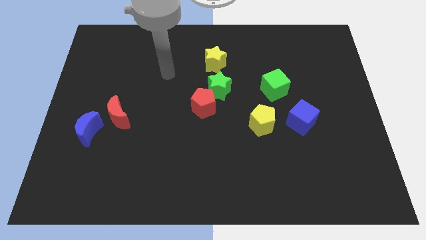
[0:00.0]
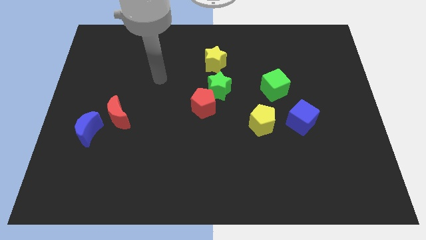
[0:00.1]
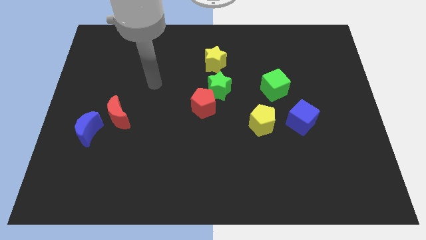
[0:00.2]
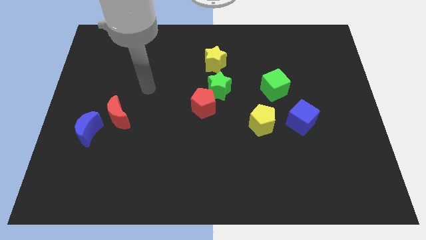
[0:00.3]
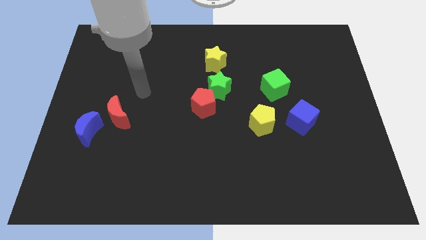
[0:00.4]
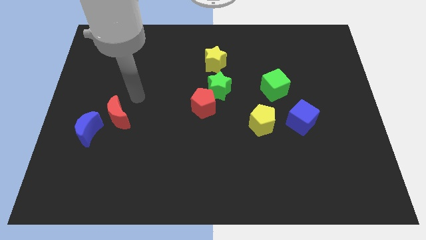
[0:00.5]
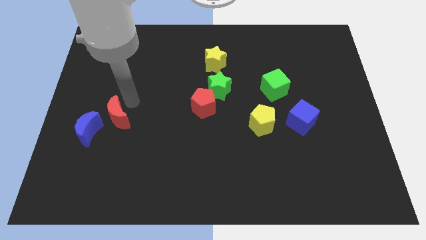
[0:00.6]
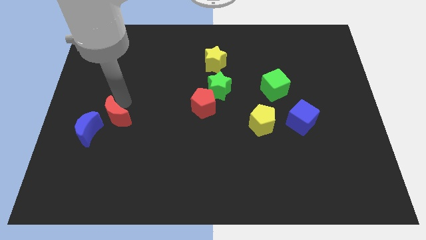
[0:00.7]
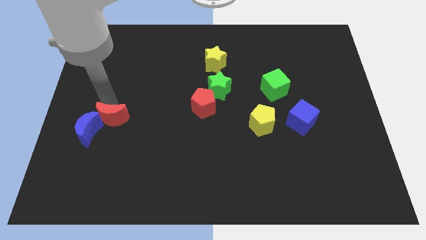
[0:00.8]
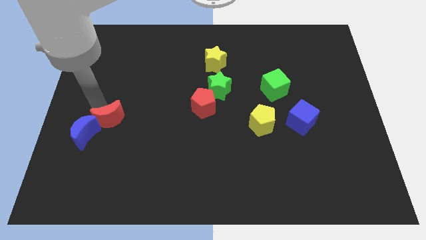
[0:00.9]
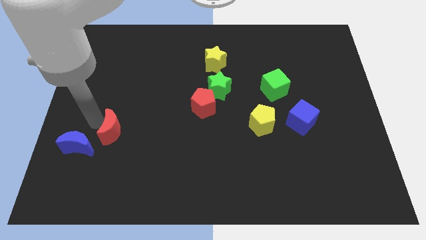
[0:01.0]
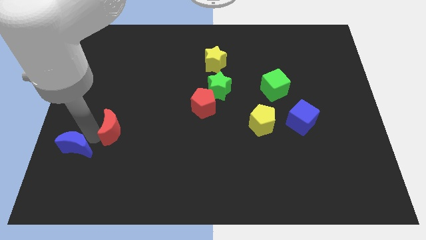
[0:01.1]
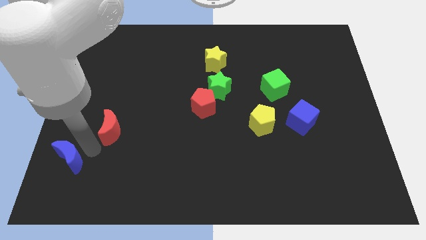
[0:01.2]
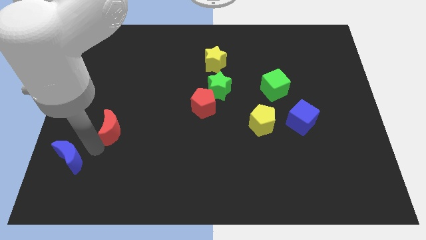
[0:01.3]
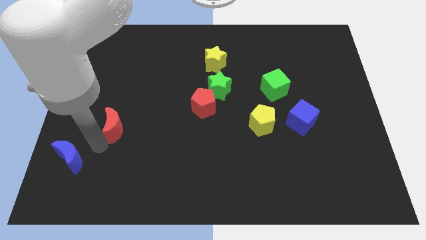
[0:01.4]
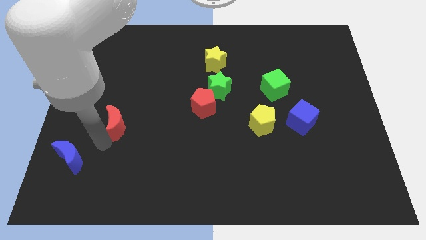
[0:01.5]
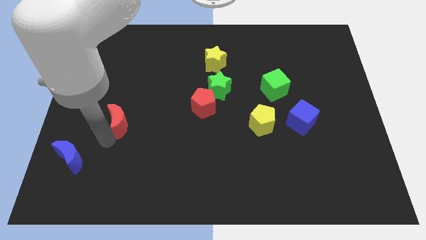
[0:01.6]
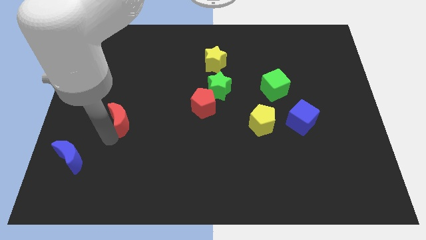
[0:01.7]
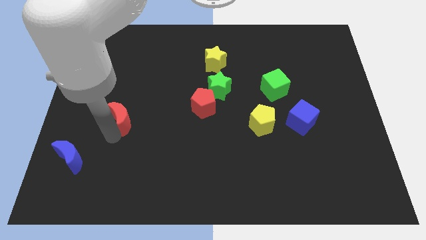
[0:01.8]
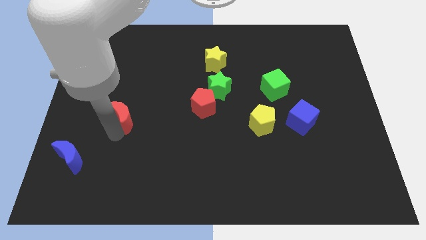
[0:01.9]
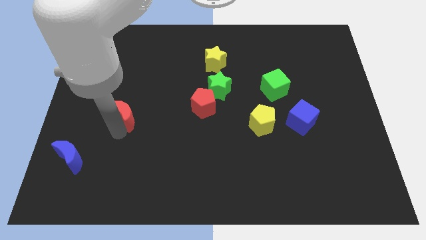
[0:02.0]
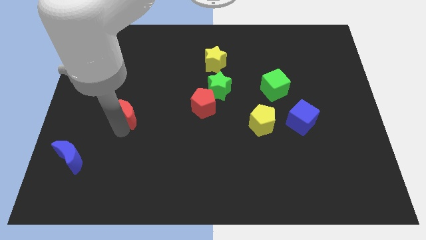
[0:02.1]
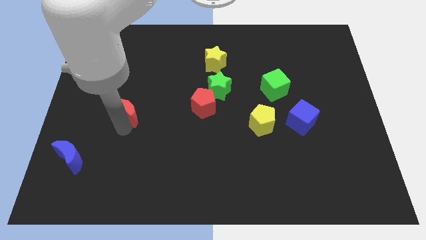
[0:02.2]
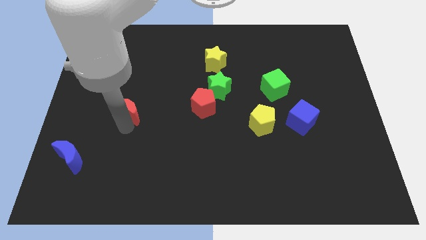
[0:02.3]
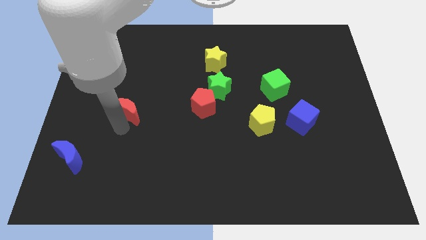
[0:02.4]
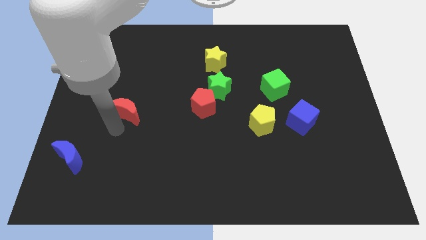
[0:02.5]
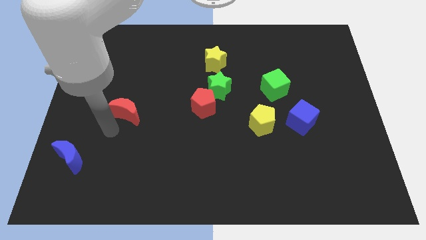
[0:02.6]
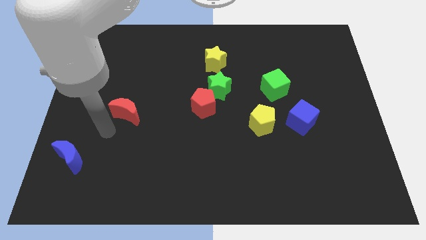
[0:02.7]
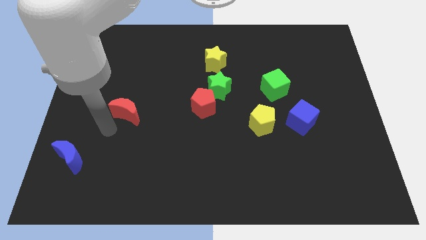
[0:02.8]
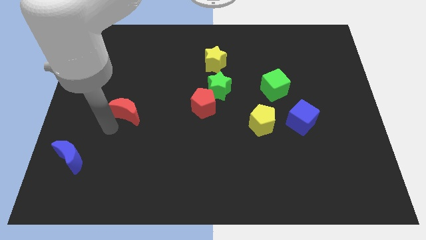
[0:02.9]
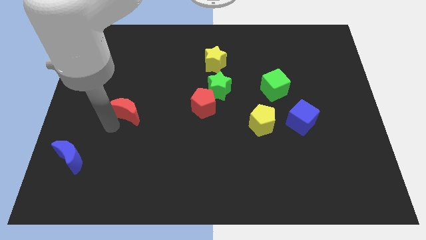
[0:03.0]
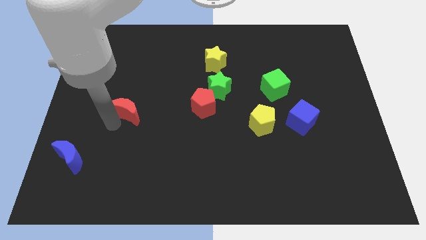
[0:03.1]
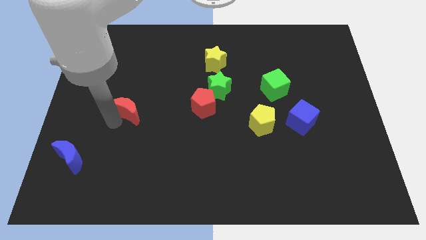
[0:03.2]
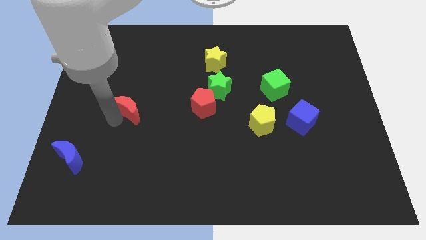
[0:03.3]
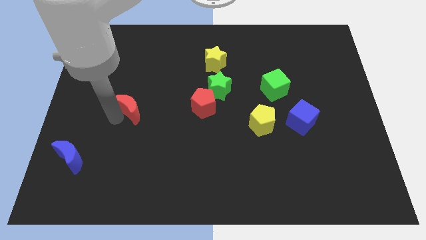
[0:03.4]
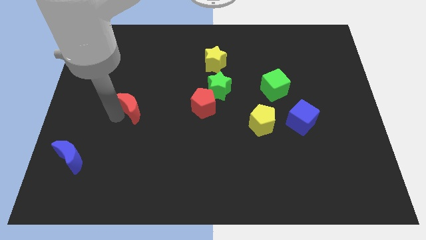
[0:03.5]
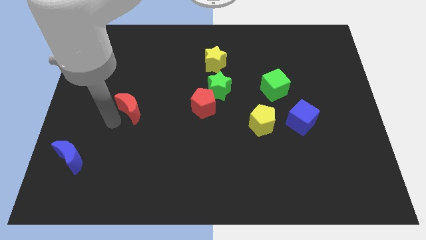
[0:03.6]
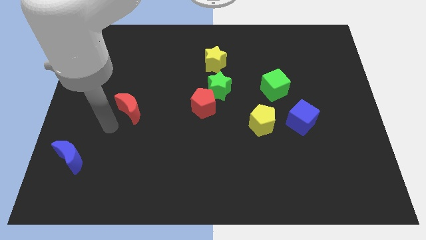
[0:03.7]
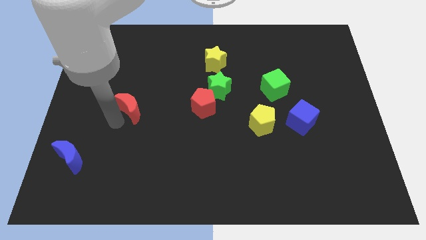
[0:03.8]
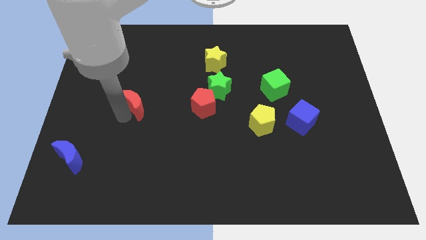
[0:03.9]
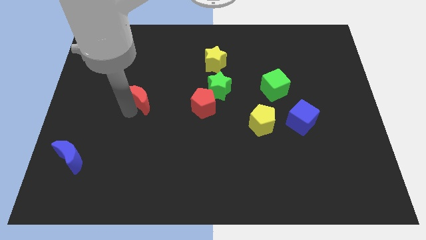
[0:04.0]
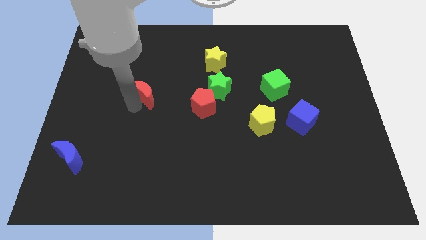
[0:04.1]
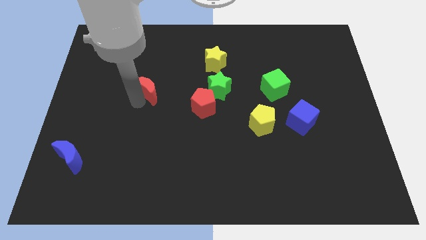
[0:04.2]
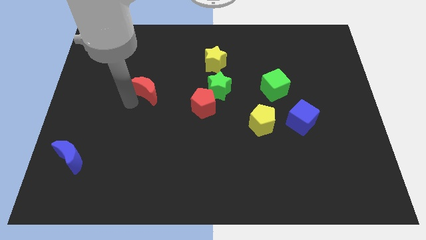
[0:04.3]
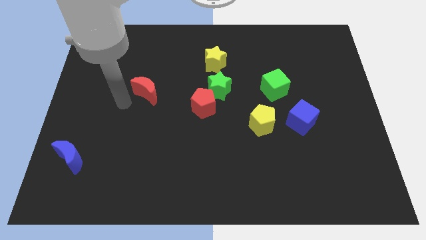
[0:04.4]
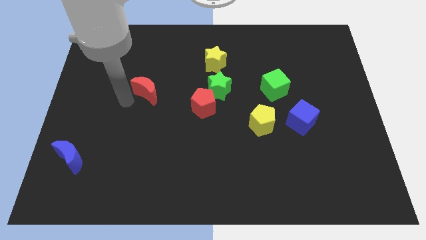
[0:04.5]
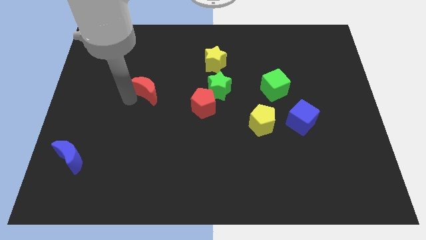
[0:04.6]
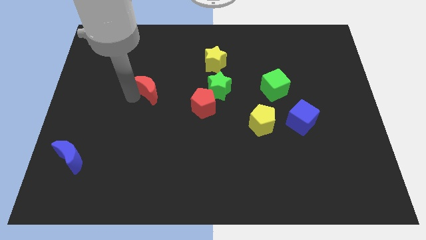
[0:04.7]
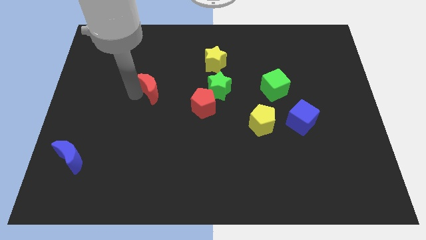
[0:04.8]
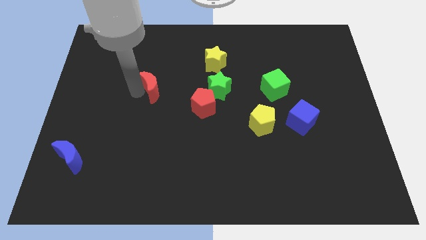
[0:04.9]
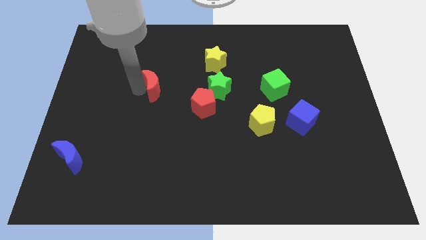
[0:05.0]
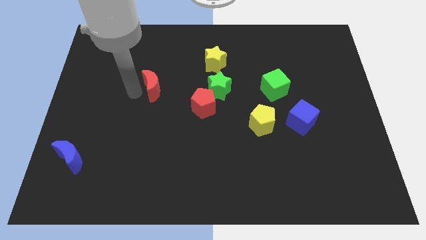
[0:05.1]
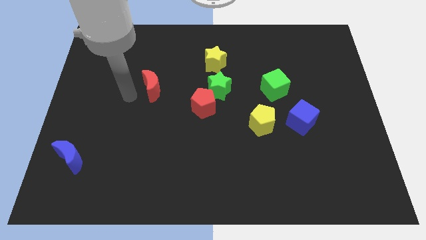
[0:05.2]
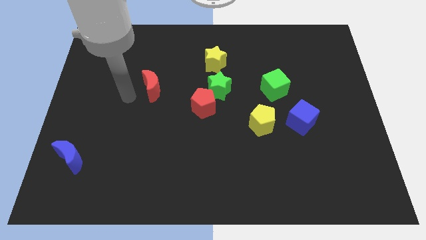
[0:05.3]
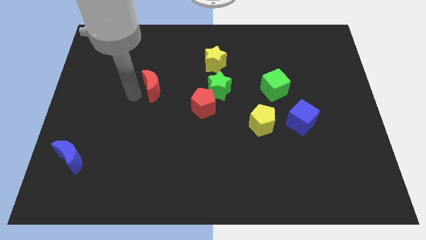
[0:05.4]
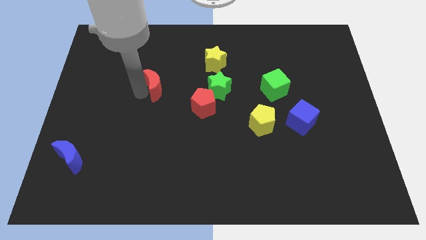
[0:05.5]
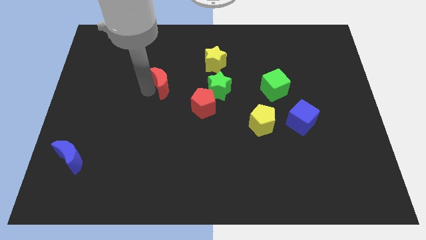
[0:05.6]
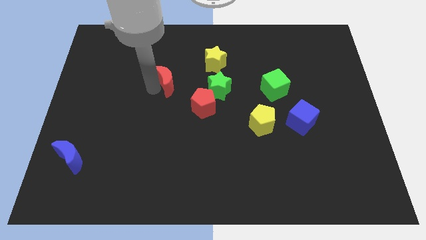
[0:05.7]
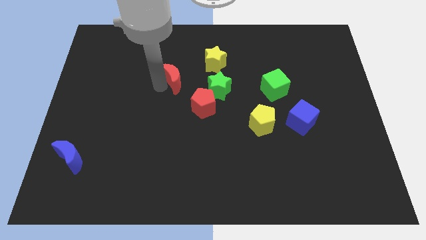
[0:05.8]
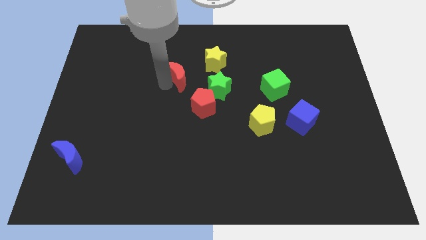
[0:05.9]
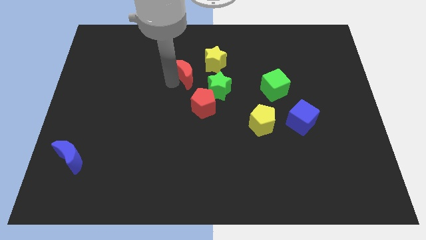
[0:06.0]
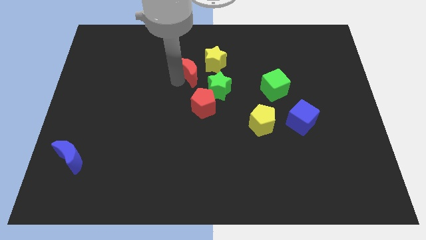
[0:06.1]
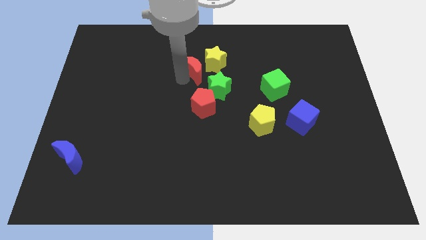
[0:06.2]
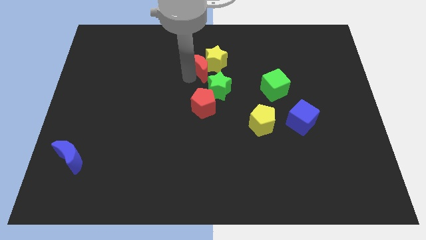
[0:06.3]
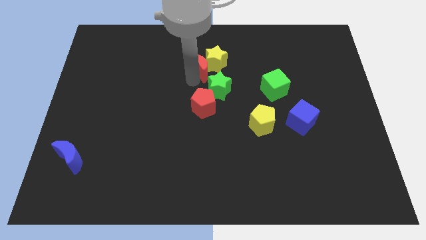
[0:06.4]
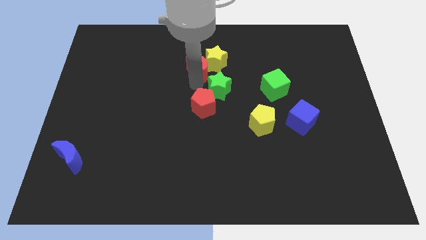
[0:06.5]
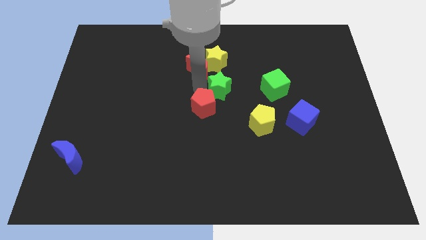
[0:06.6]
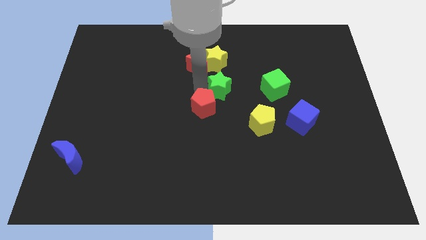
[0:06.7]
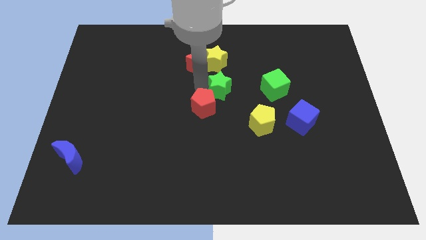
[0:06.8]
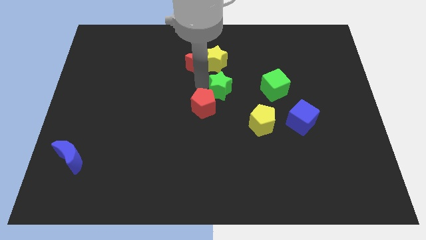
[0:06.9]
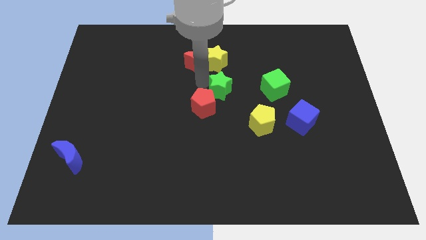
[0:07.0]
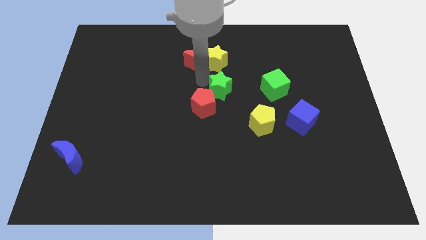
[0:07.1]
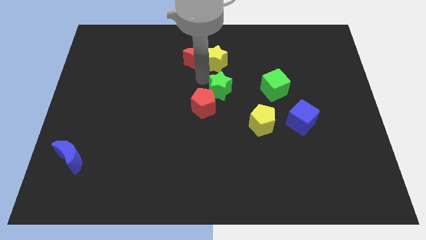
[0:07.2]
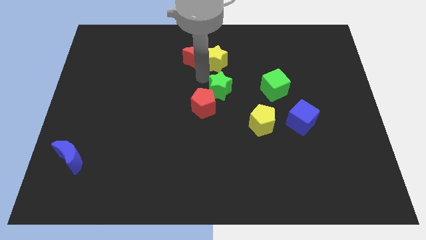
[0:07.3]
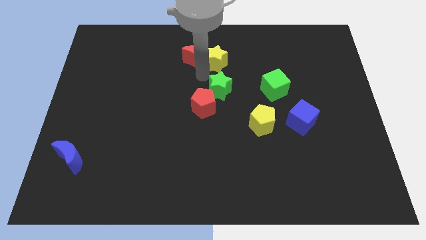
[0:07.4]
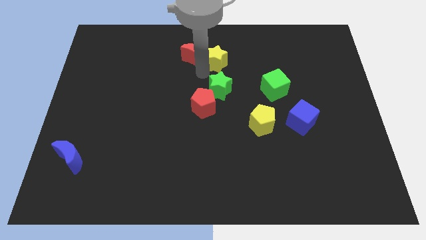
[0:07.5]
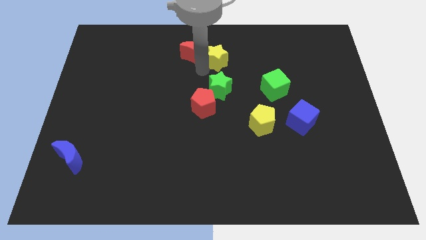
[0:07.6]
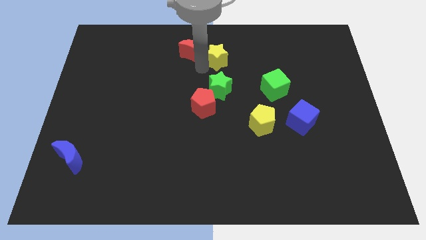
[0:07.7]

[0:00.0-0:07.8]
put the red moon to the towards your base
